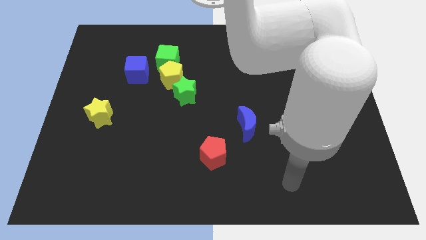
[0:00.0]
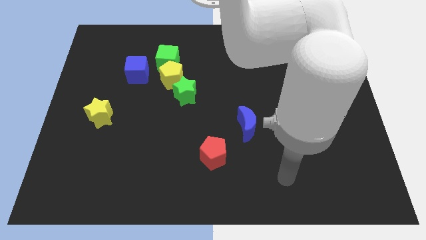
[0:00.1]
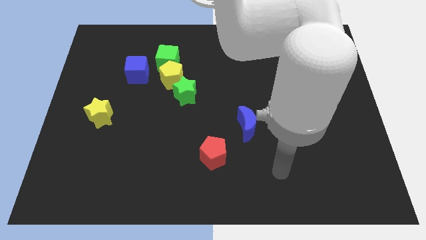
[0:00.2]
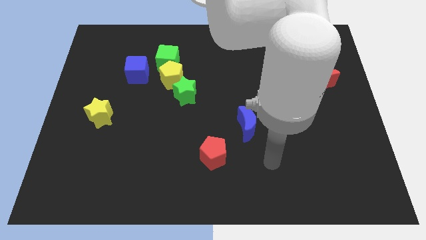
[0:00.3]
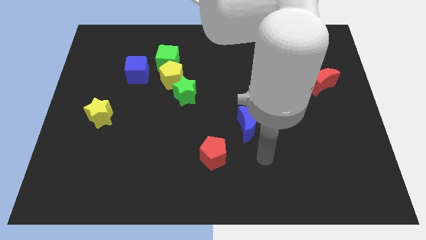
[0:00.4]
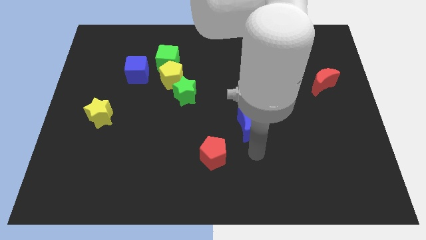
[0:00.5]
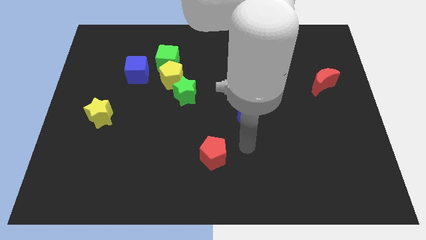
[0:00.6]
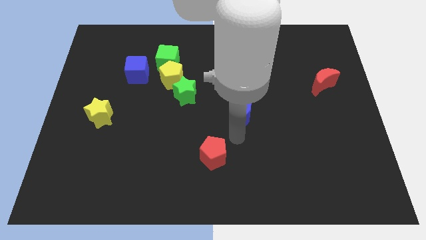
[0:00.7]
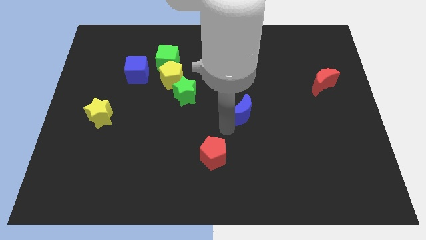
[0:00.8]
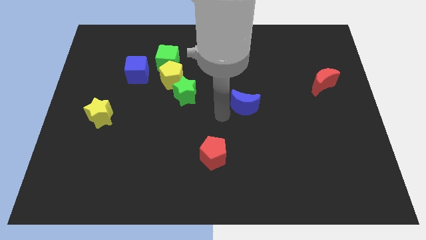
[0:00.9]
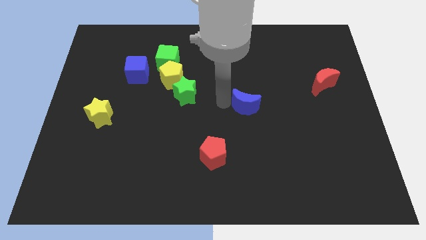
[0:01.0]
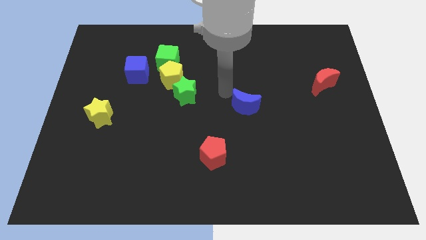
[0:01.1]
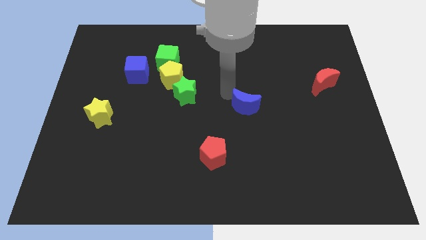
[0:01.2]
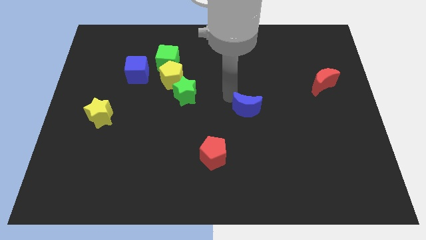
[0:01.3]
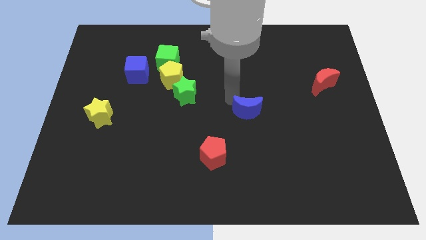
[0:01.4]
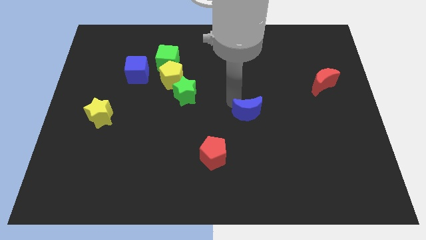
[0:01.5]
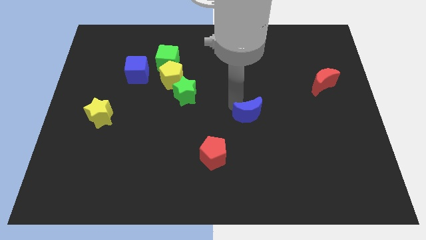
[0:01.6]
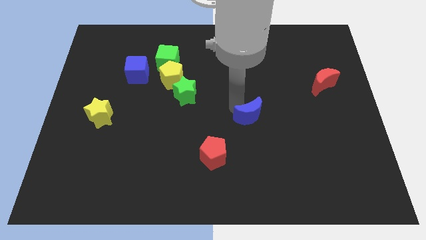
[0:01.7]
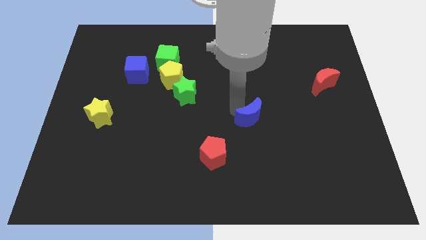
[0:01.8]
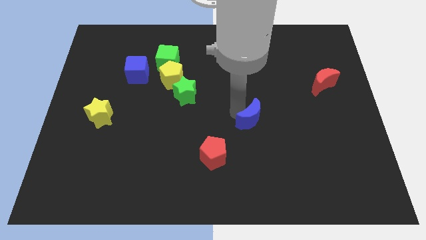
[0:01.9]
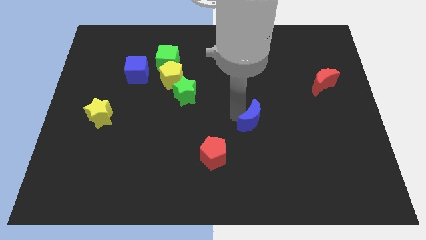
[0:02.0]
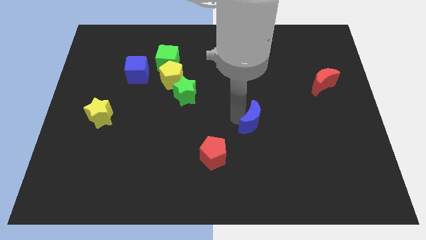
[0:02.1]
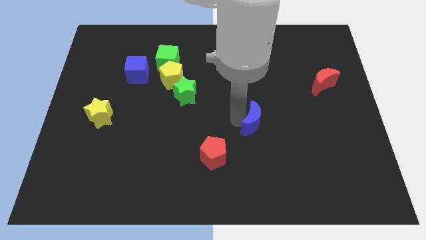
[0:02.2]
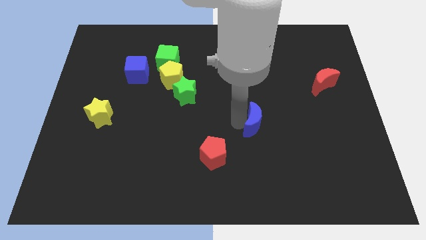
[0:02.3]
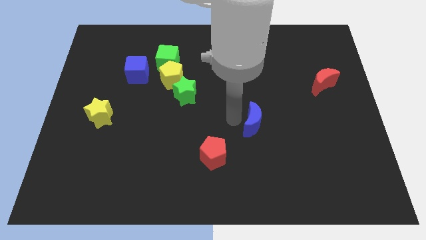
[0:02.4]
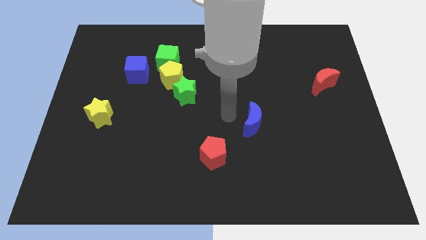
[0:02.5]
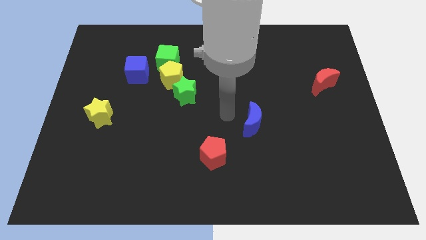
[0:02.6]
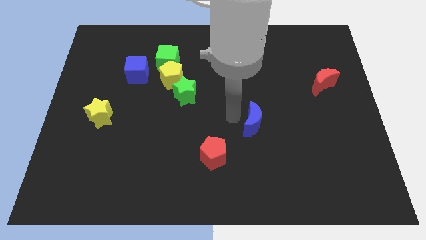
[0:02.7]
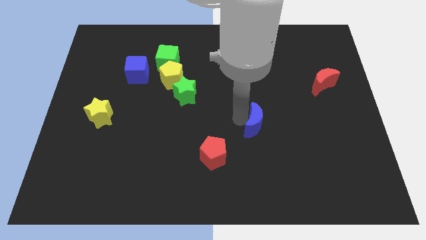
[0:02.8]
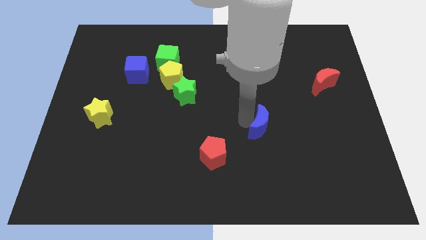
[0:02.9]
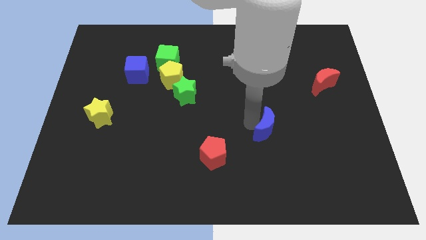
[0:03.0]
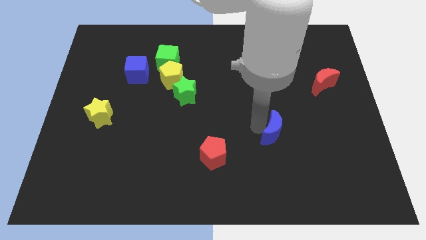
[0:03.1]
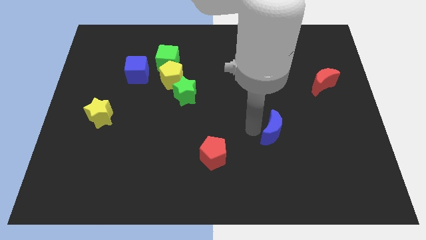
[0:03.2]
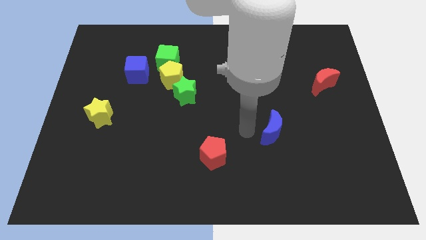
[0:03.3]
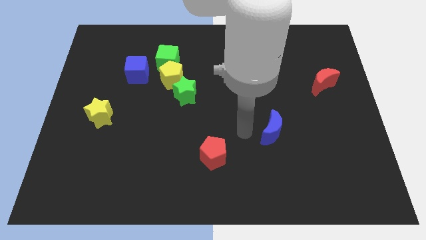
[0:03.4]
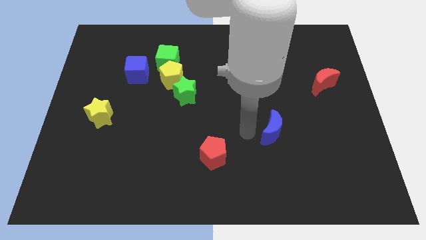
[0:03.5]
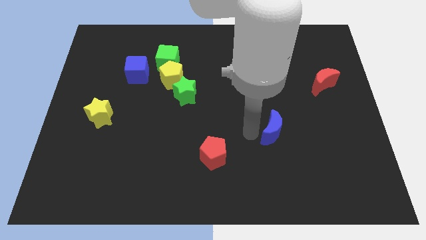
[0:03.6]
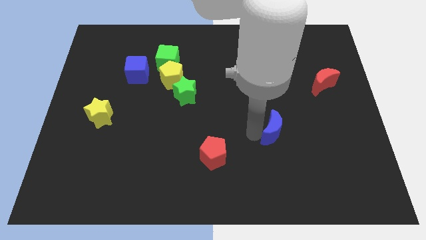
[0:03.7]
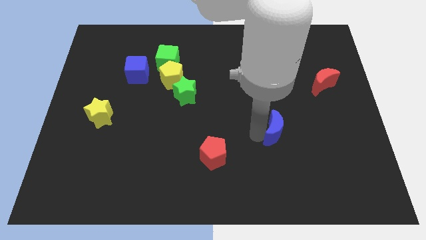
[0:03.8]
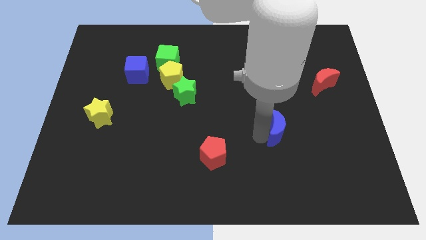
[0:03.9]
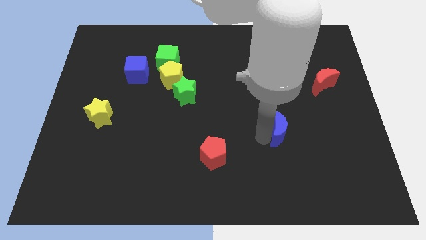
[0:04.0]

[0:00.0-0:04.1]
slightly slide the blue moon right

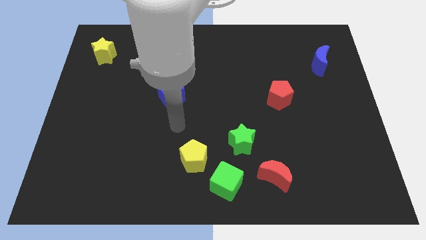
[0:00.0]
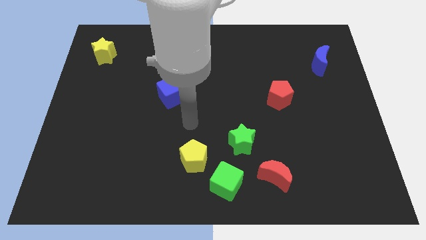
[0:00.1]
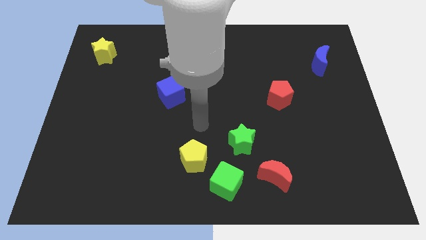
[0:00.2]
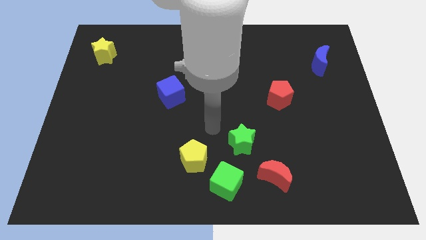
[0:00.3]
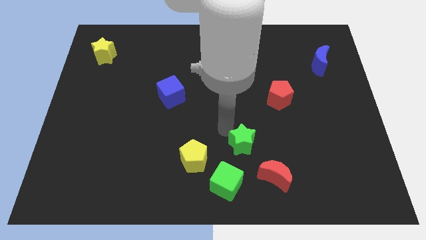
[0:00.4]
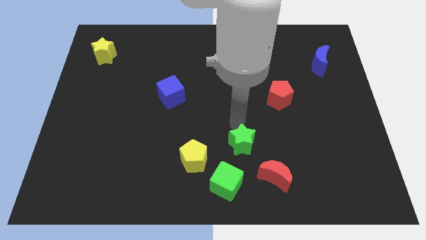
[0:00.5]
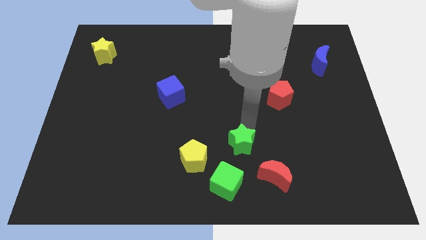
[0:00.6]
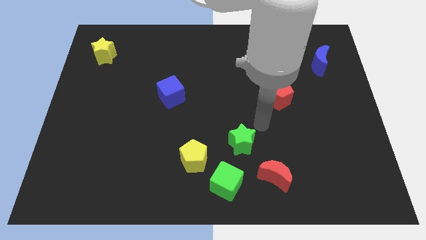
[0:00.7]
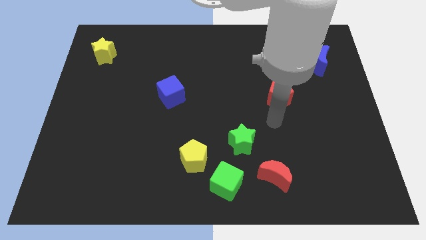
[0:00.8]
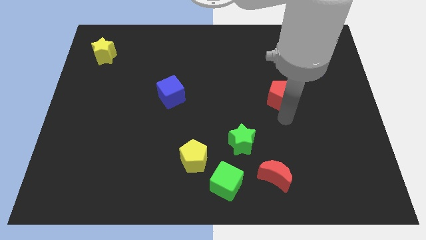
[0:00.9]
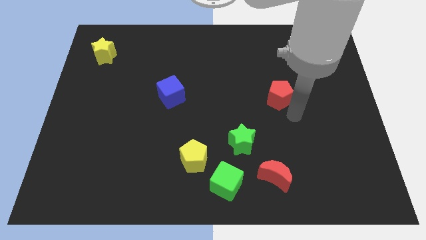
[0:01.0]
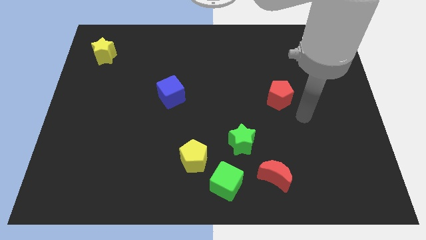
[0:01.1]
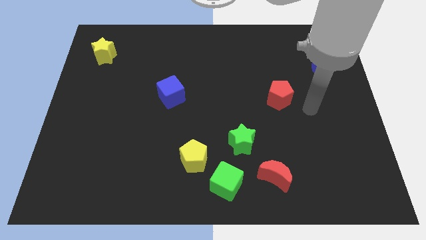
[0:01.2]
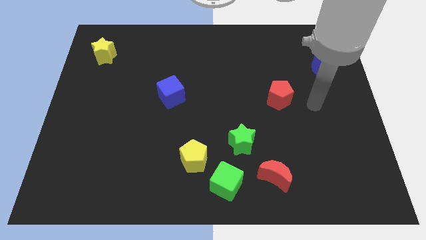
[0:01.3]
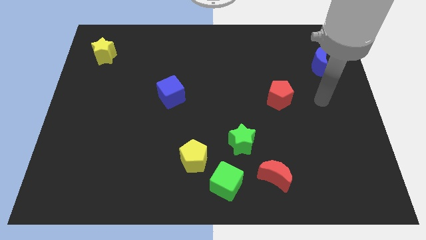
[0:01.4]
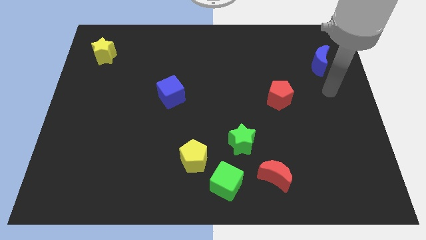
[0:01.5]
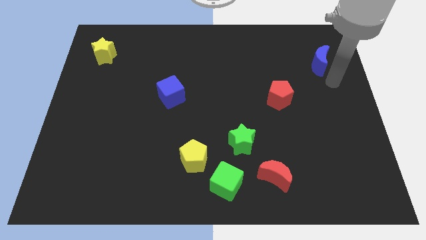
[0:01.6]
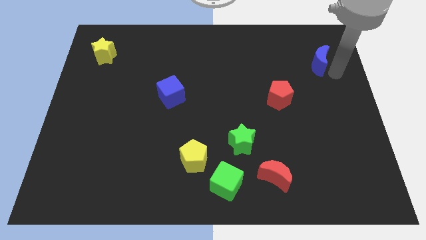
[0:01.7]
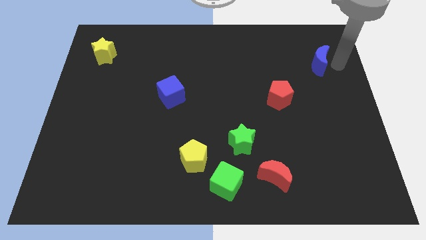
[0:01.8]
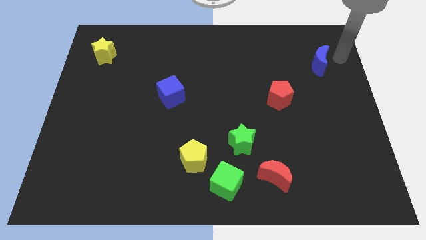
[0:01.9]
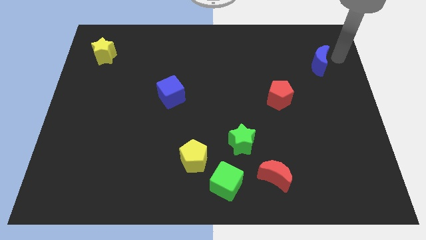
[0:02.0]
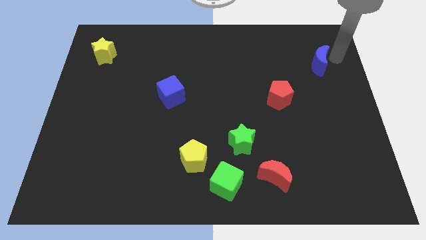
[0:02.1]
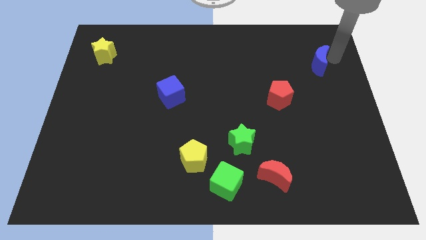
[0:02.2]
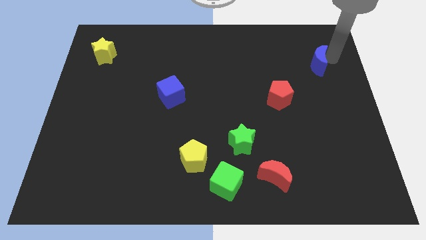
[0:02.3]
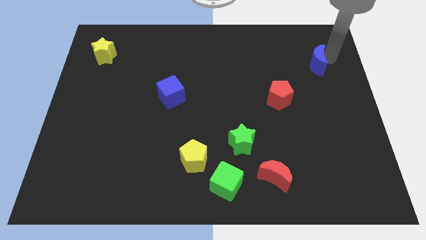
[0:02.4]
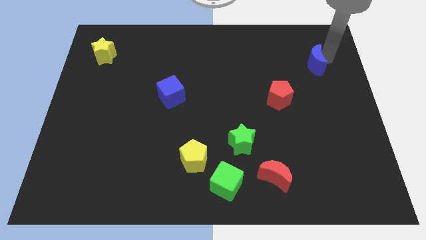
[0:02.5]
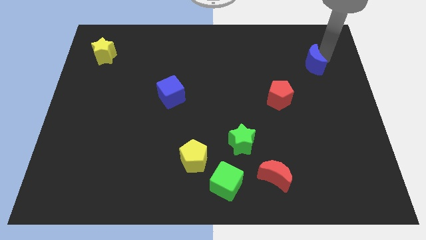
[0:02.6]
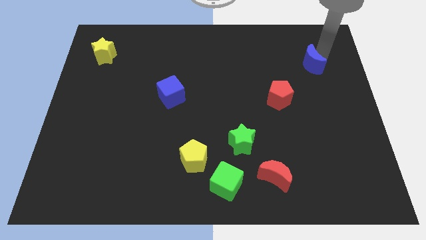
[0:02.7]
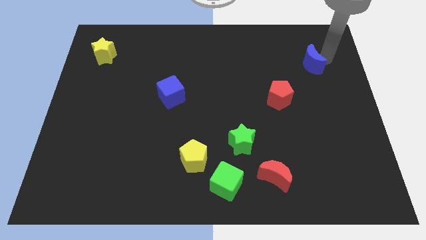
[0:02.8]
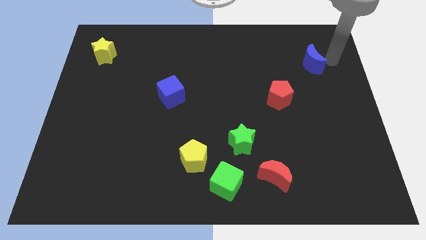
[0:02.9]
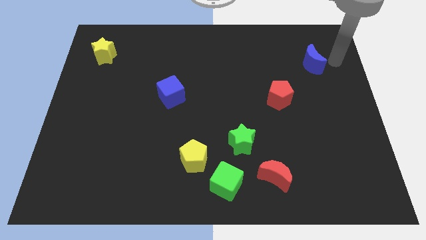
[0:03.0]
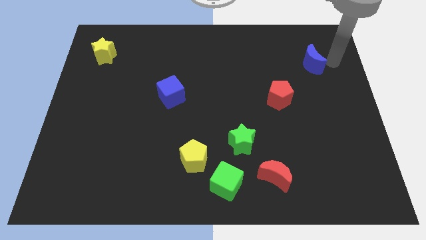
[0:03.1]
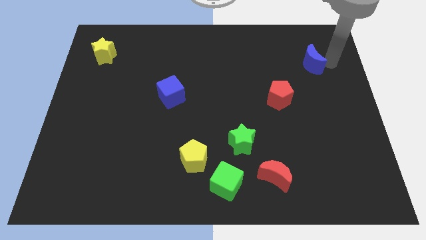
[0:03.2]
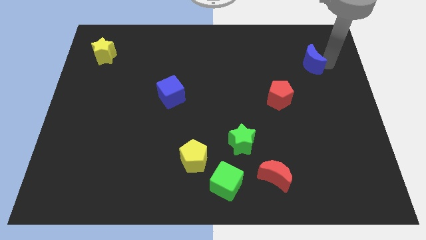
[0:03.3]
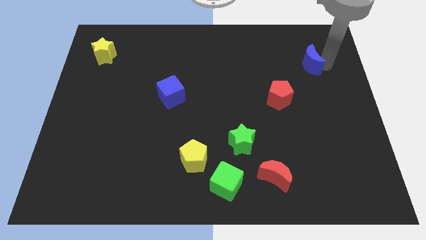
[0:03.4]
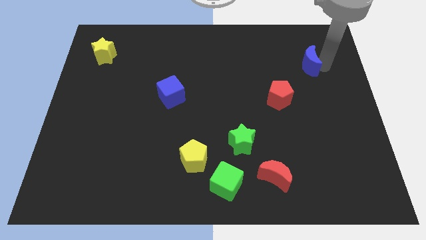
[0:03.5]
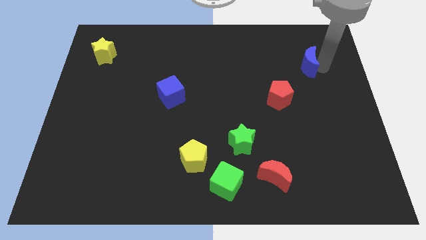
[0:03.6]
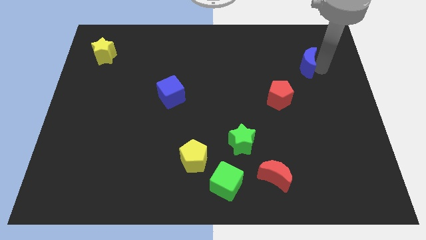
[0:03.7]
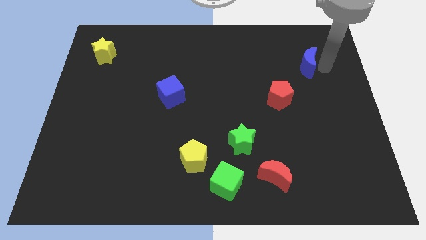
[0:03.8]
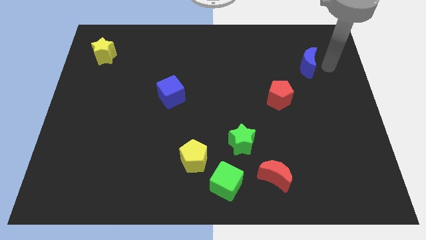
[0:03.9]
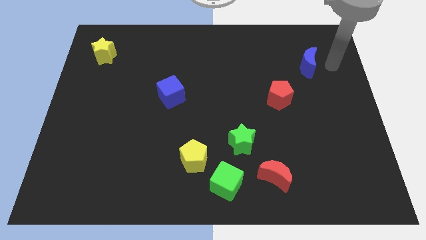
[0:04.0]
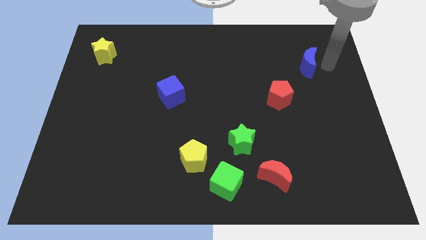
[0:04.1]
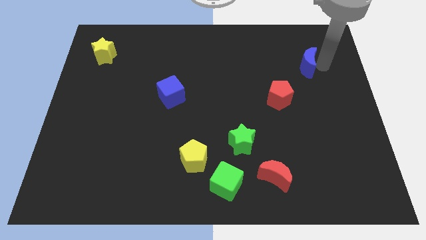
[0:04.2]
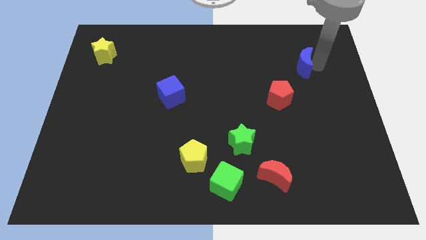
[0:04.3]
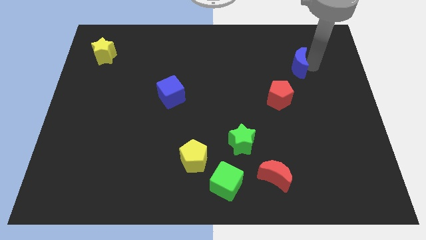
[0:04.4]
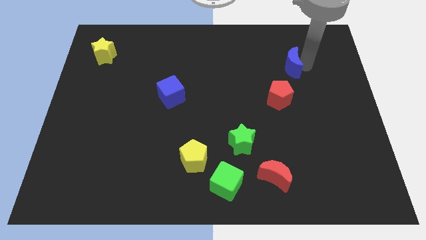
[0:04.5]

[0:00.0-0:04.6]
move the blue moon left somewhat
